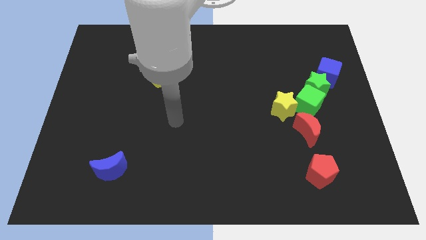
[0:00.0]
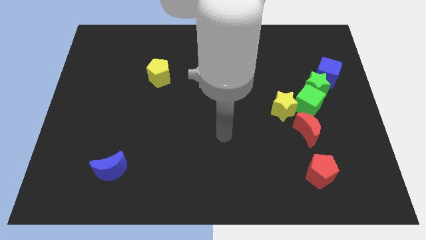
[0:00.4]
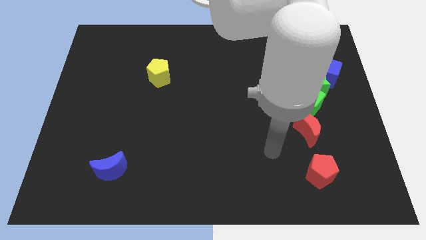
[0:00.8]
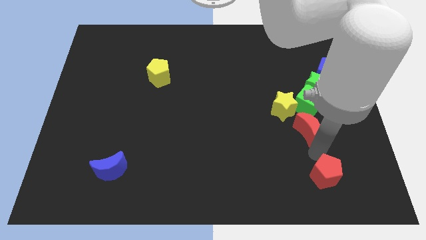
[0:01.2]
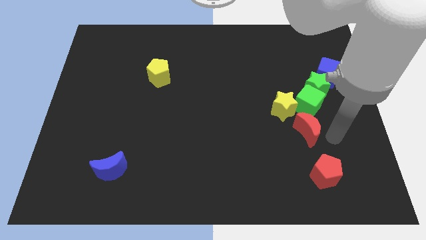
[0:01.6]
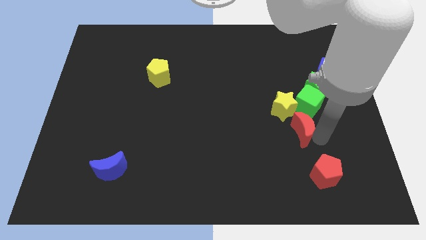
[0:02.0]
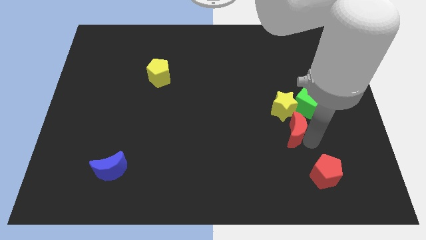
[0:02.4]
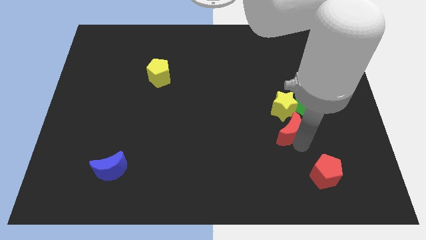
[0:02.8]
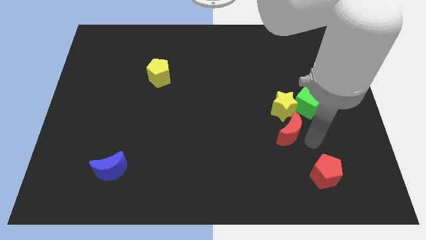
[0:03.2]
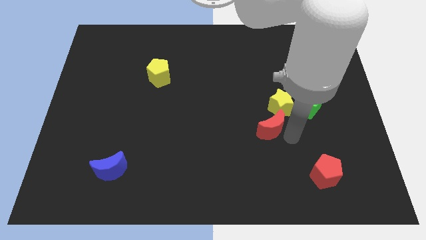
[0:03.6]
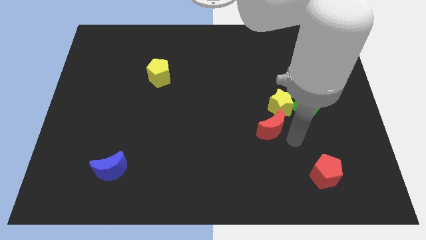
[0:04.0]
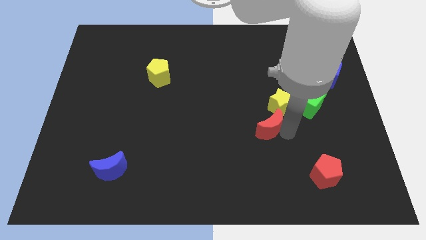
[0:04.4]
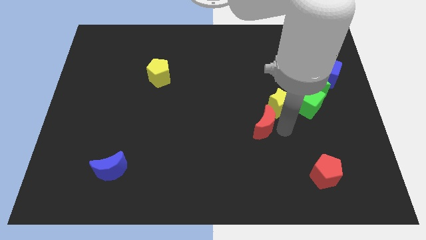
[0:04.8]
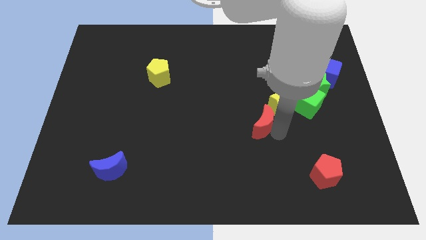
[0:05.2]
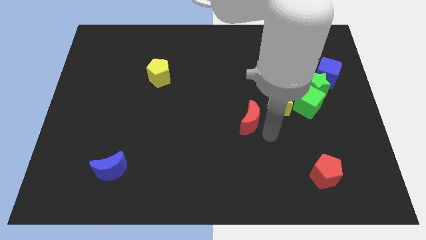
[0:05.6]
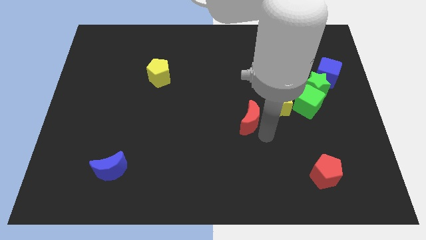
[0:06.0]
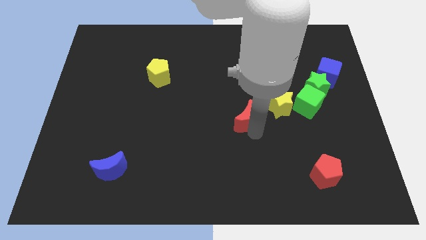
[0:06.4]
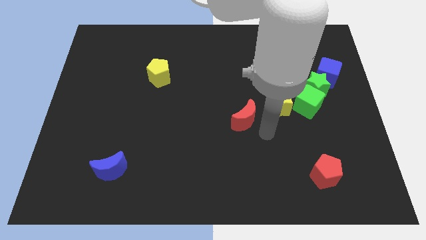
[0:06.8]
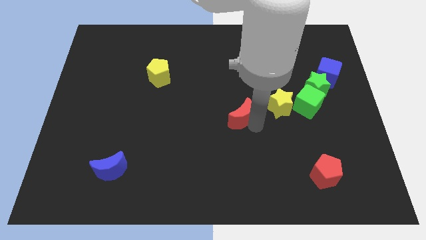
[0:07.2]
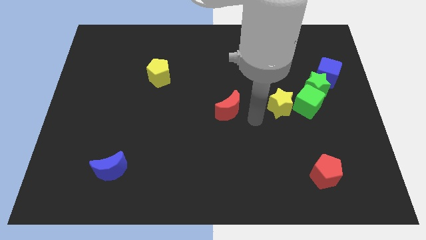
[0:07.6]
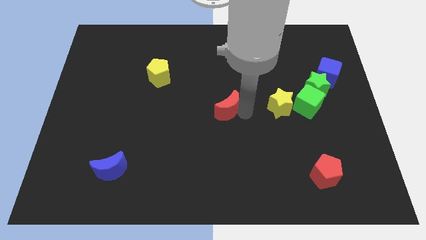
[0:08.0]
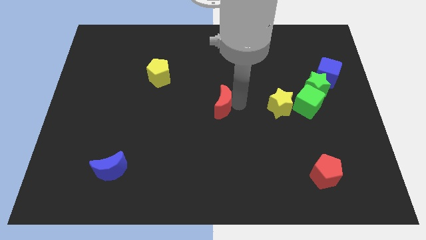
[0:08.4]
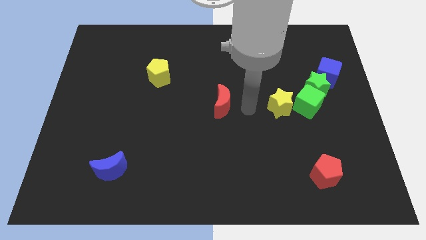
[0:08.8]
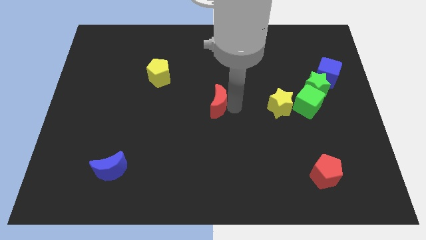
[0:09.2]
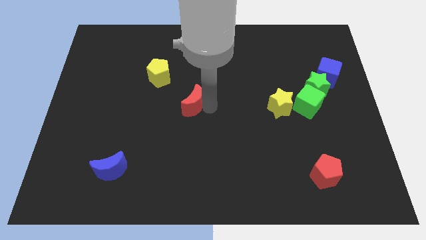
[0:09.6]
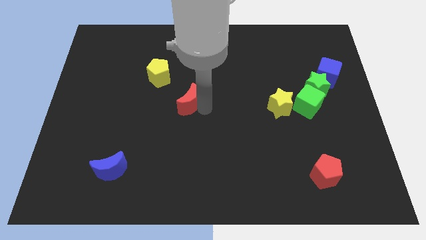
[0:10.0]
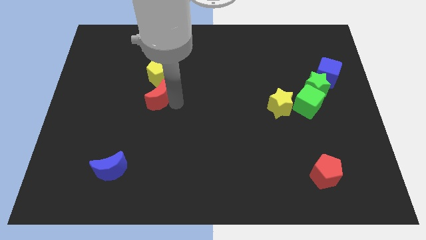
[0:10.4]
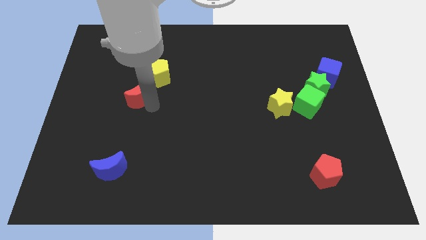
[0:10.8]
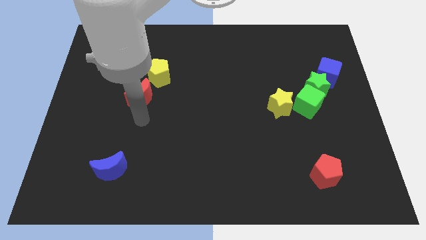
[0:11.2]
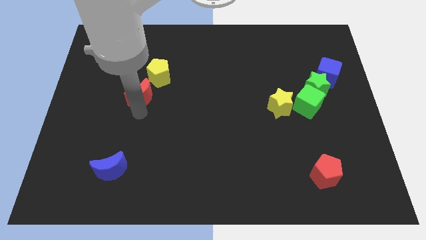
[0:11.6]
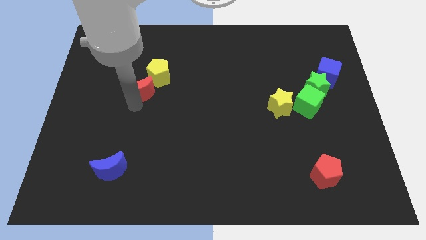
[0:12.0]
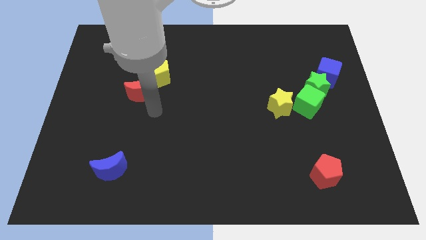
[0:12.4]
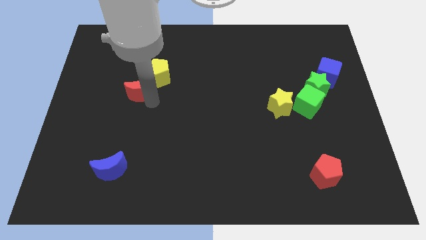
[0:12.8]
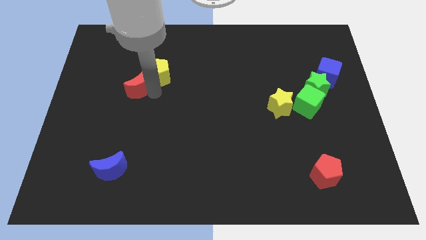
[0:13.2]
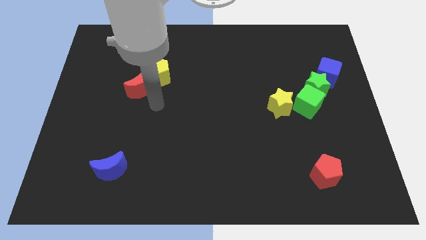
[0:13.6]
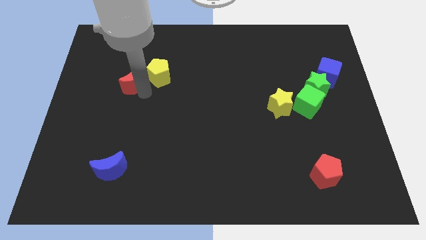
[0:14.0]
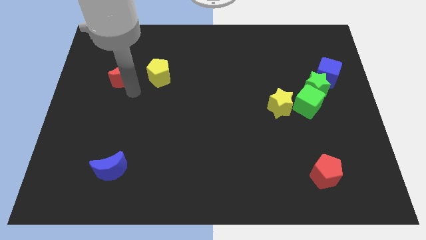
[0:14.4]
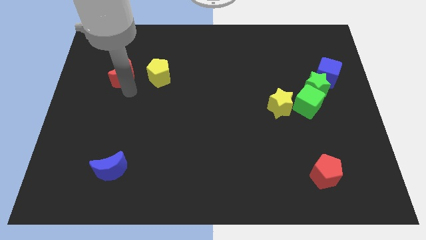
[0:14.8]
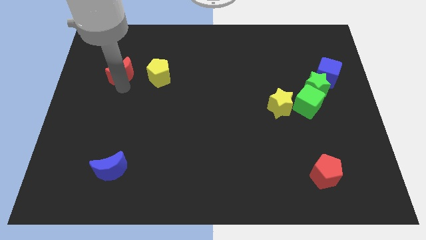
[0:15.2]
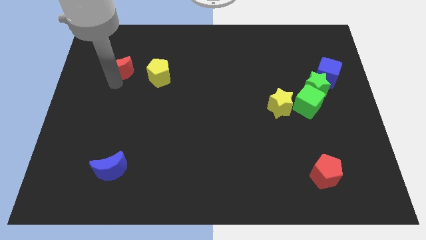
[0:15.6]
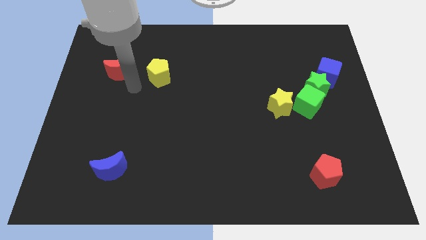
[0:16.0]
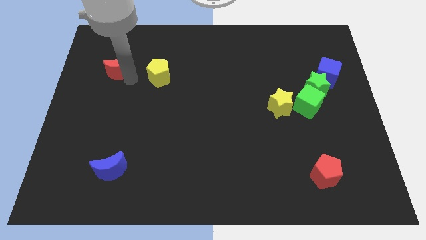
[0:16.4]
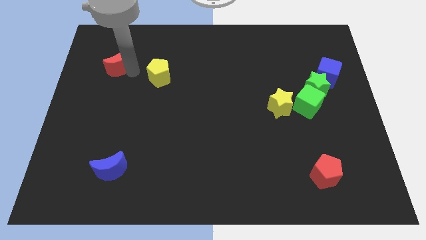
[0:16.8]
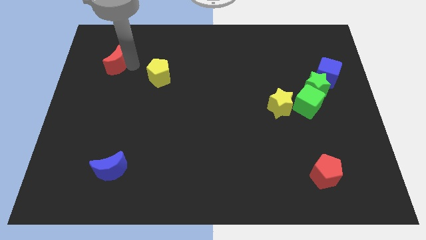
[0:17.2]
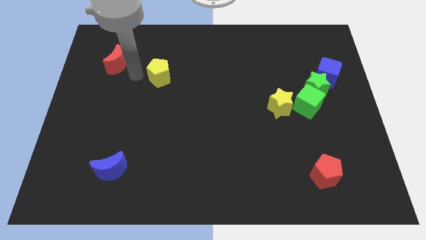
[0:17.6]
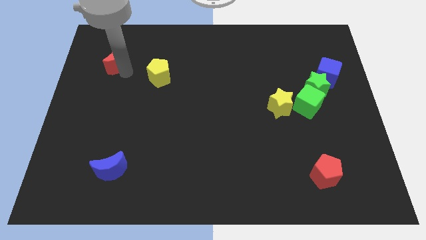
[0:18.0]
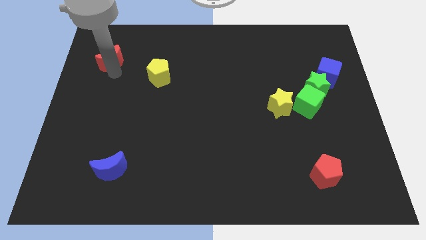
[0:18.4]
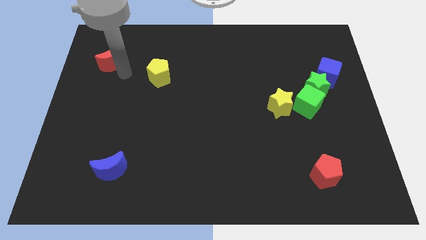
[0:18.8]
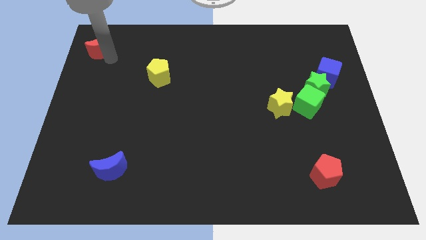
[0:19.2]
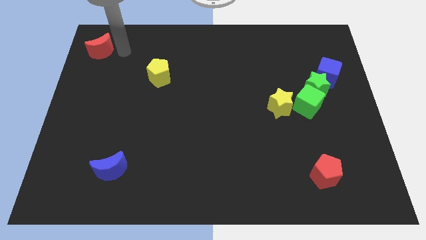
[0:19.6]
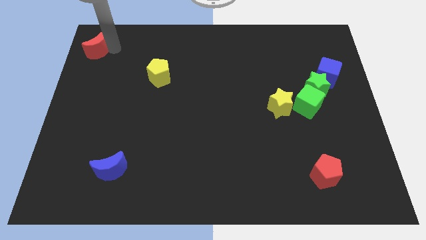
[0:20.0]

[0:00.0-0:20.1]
put the red moon to the top left corner

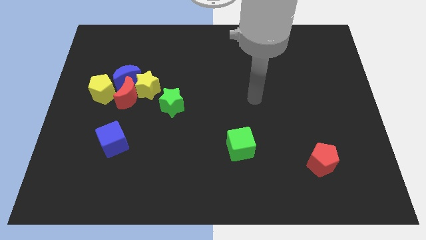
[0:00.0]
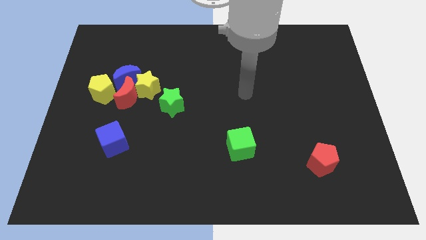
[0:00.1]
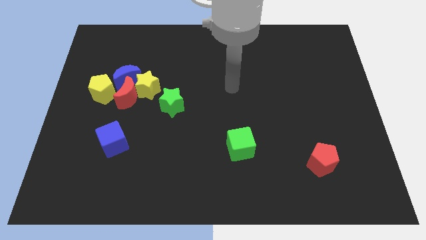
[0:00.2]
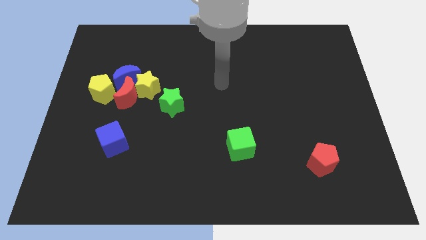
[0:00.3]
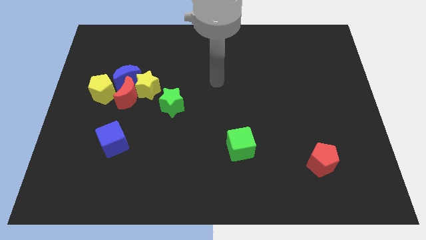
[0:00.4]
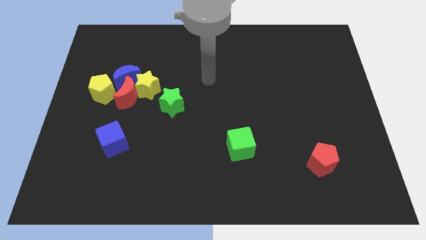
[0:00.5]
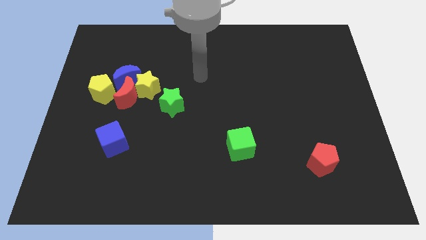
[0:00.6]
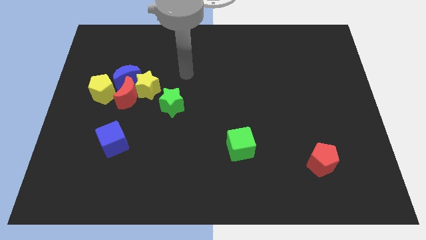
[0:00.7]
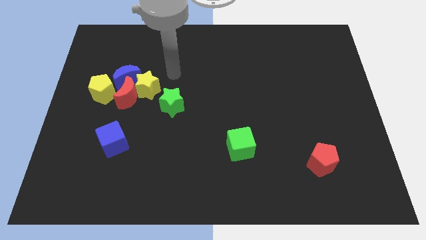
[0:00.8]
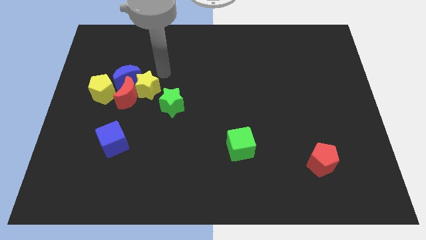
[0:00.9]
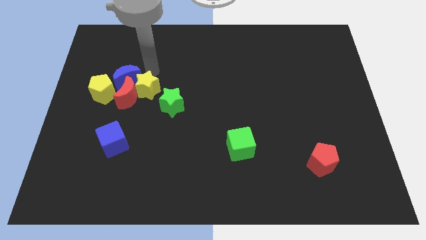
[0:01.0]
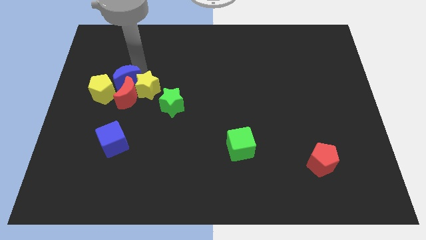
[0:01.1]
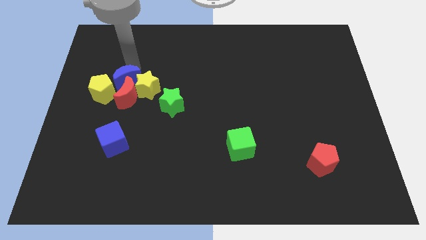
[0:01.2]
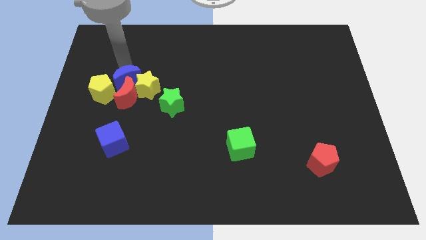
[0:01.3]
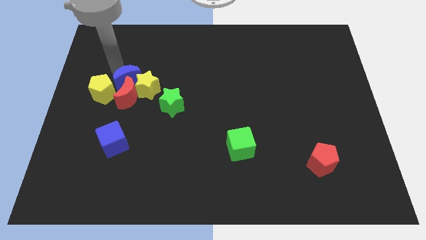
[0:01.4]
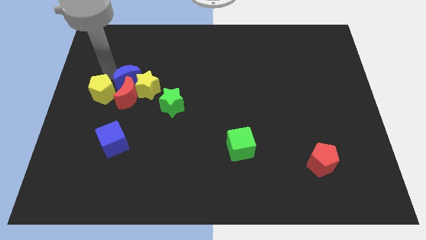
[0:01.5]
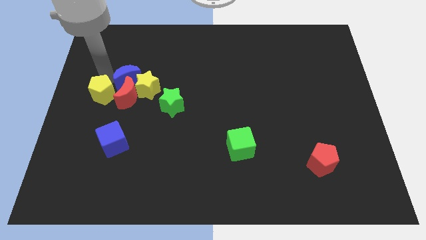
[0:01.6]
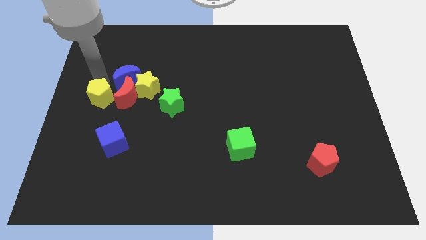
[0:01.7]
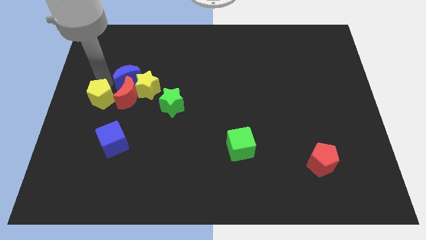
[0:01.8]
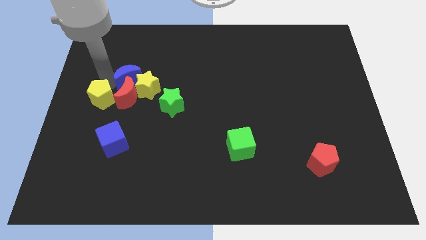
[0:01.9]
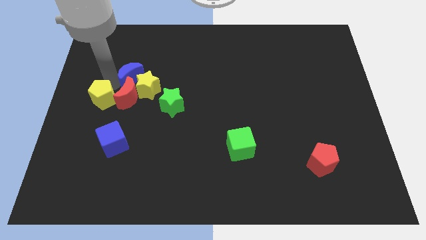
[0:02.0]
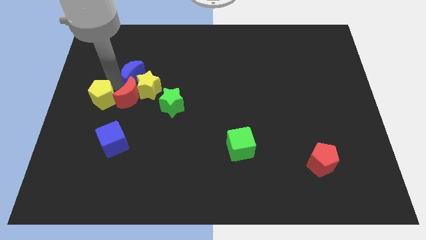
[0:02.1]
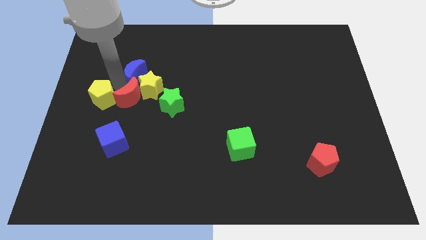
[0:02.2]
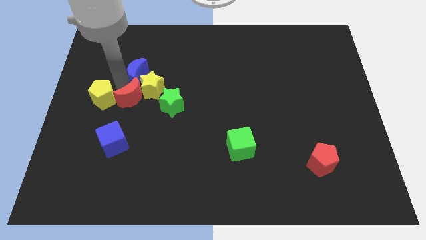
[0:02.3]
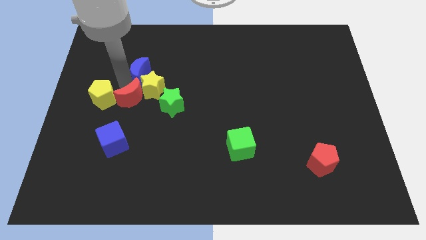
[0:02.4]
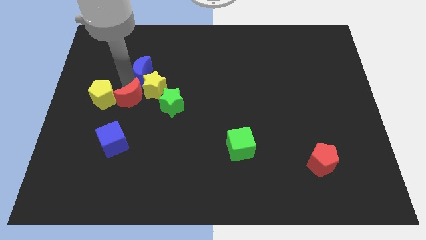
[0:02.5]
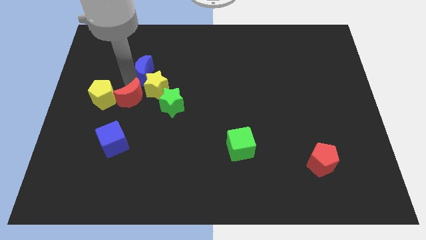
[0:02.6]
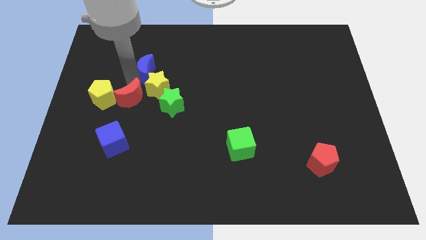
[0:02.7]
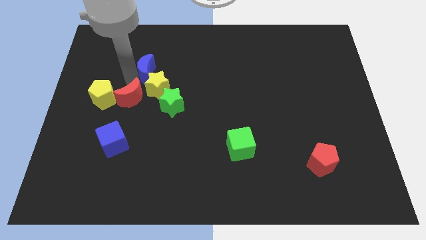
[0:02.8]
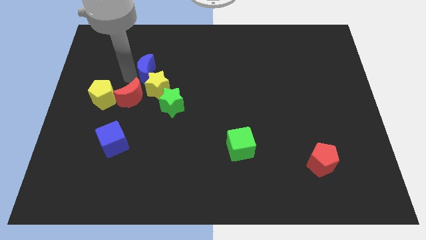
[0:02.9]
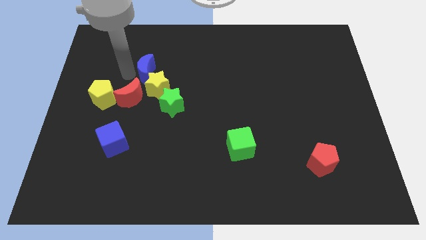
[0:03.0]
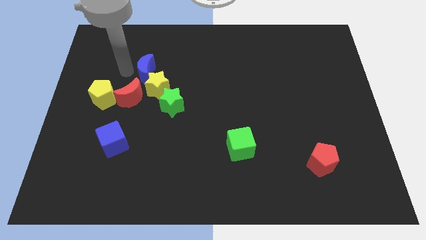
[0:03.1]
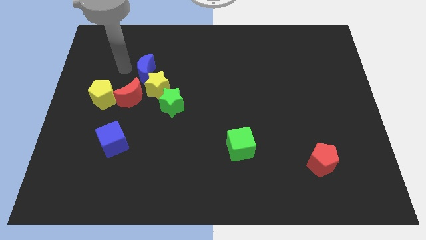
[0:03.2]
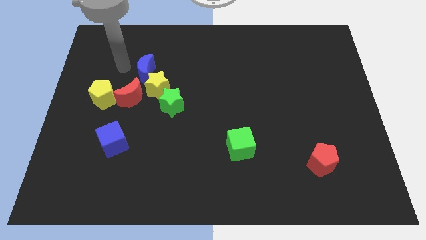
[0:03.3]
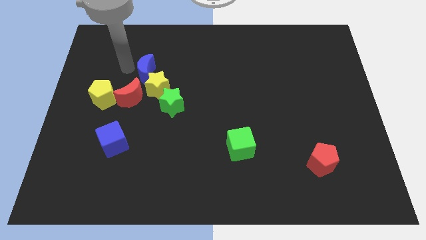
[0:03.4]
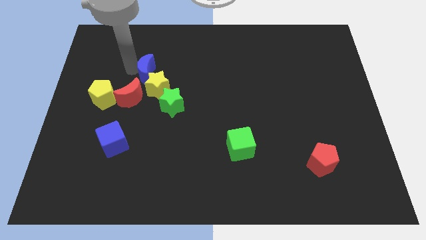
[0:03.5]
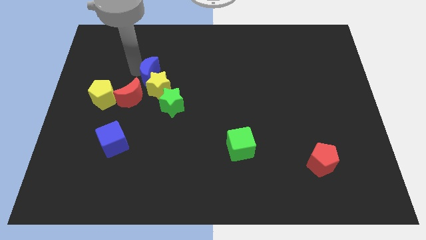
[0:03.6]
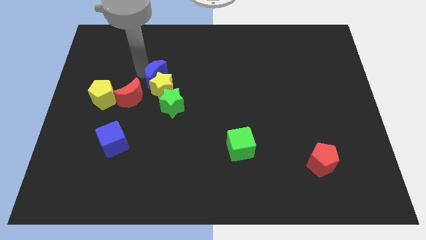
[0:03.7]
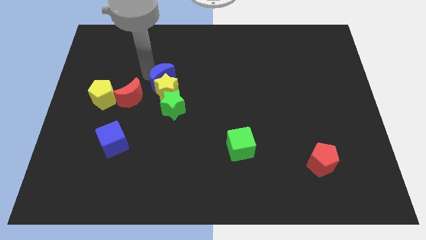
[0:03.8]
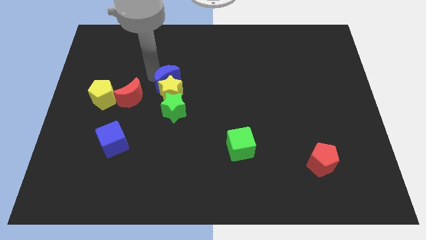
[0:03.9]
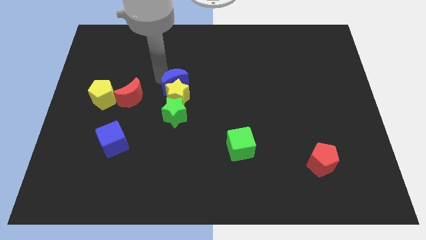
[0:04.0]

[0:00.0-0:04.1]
move the blue moon to the center of the board
